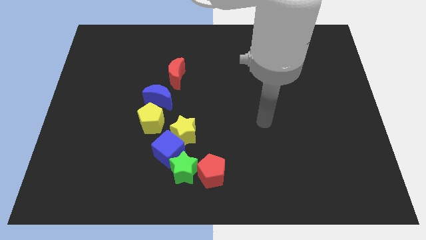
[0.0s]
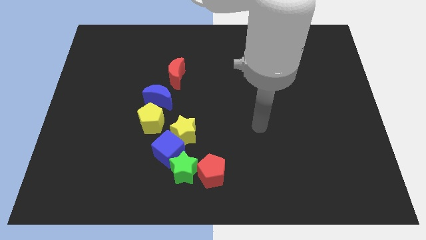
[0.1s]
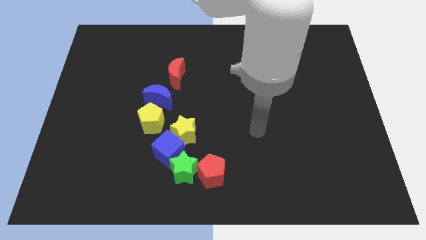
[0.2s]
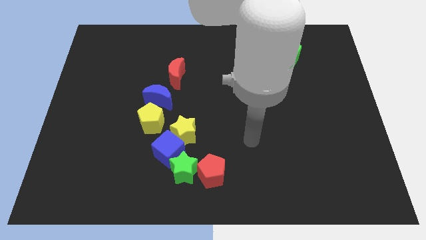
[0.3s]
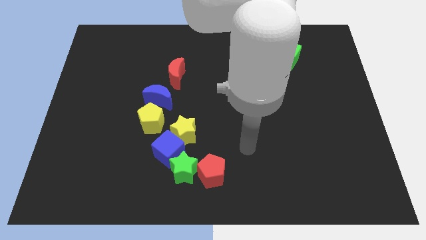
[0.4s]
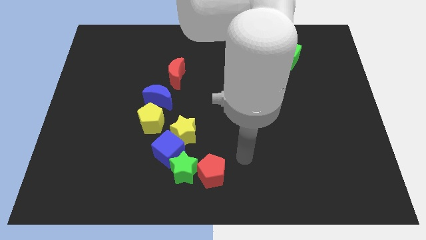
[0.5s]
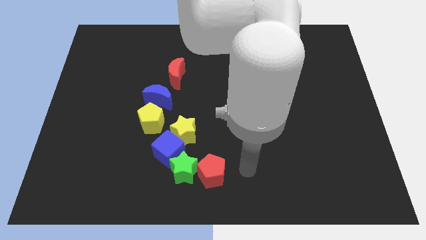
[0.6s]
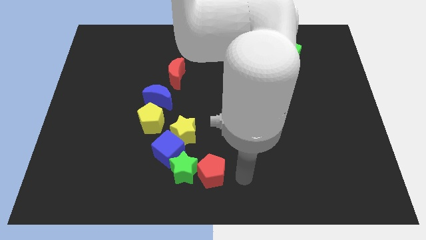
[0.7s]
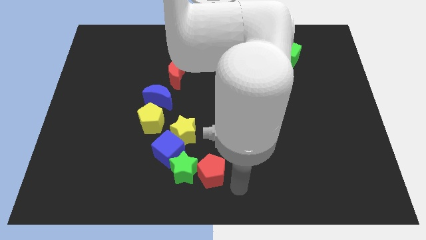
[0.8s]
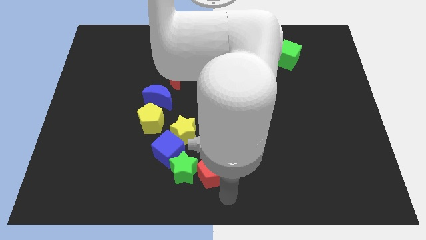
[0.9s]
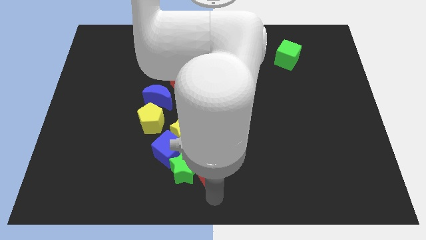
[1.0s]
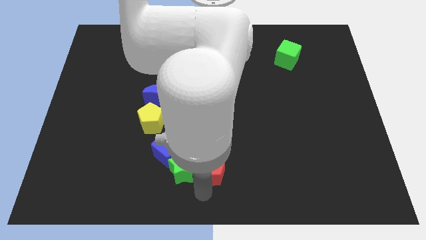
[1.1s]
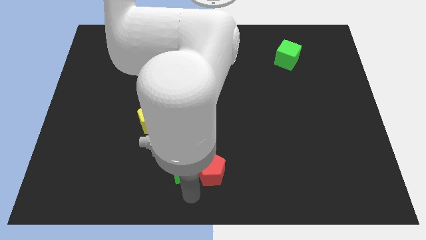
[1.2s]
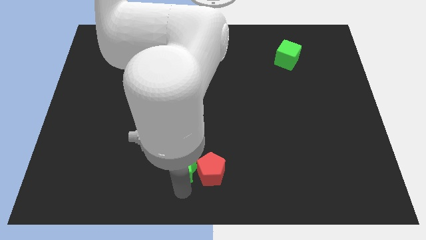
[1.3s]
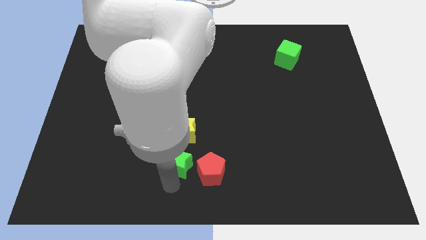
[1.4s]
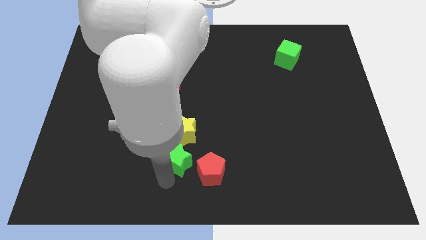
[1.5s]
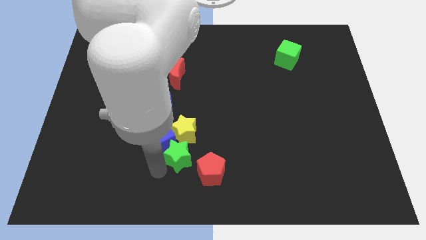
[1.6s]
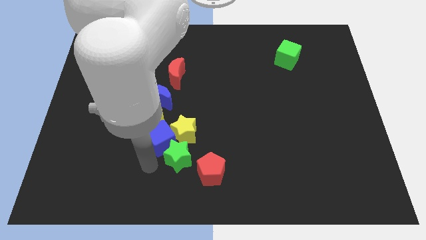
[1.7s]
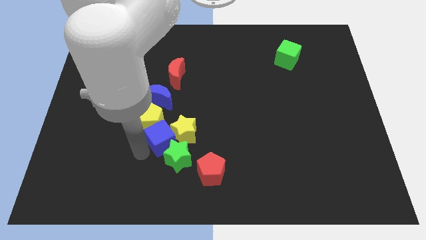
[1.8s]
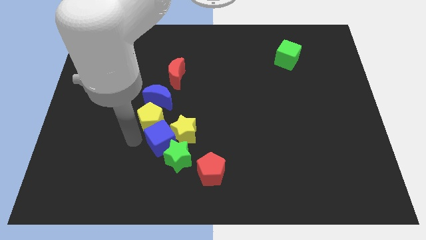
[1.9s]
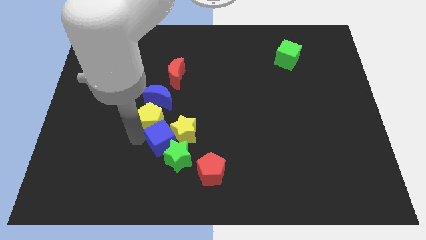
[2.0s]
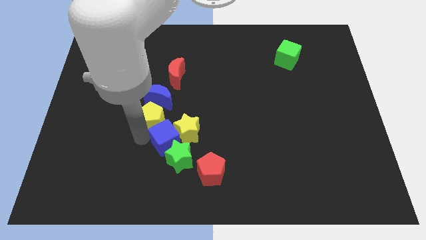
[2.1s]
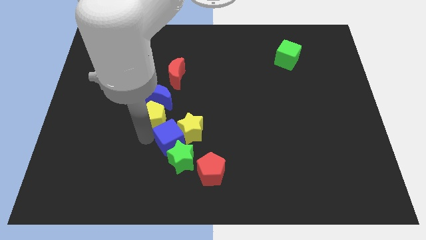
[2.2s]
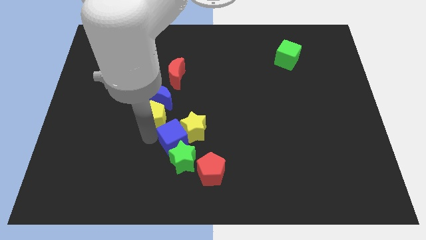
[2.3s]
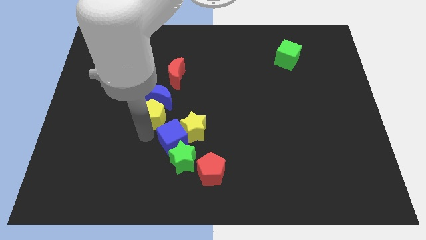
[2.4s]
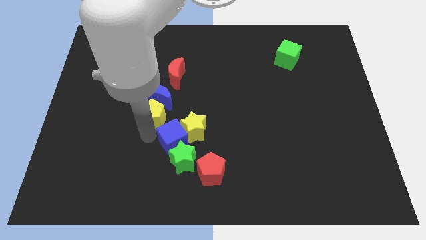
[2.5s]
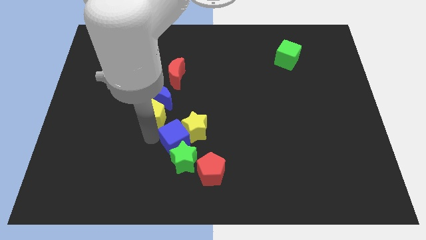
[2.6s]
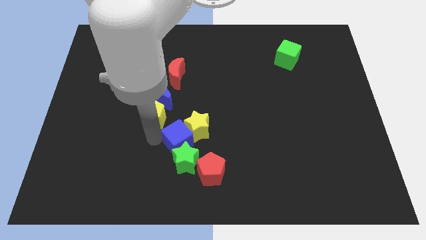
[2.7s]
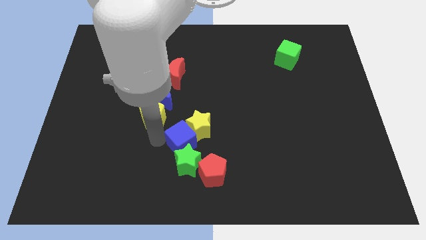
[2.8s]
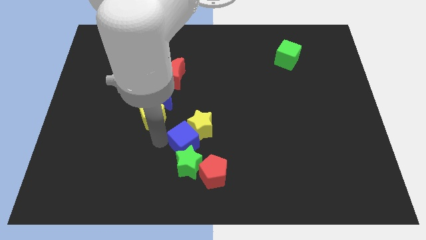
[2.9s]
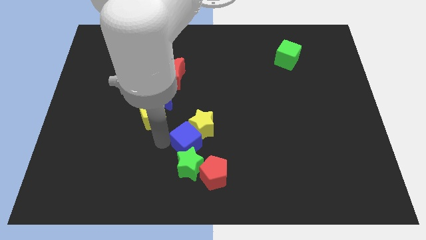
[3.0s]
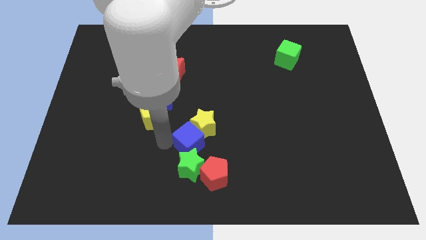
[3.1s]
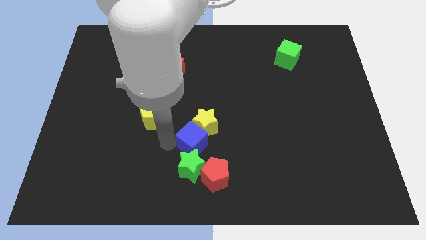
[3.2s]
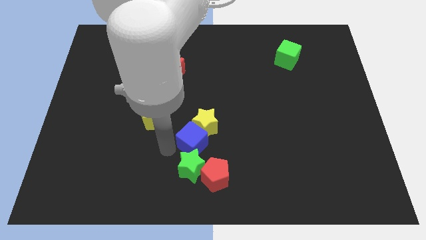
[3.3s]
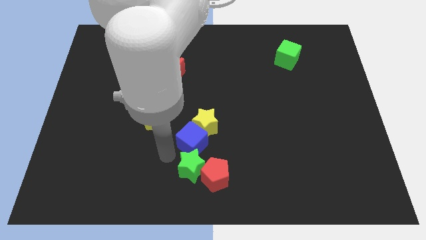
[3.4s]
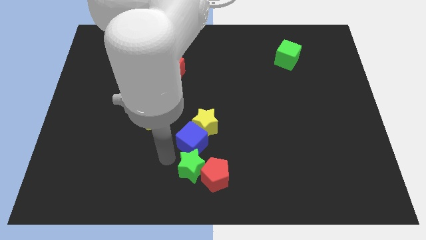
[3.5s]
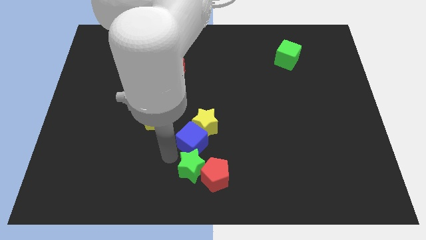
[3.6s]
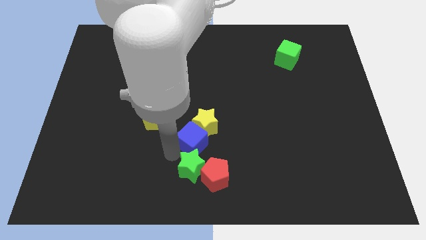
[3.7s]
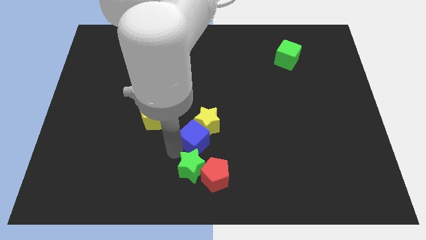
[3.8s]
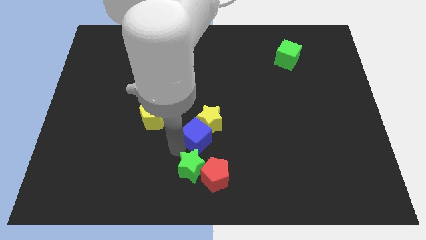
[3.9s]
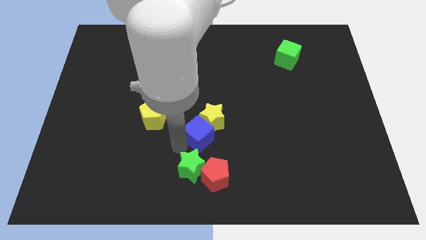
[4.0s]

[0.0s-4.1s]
push the blue cube up and to the right diagonally a little

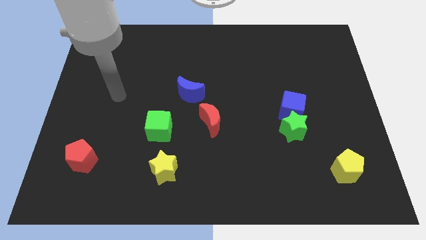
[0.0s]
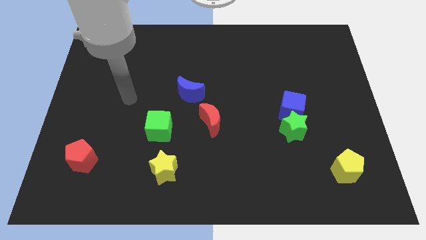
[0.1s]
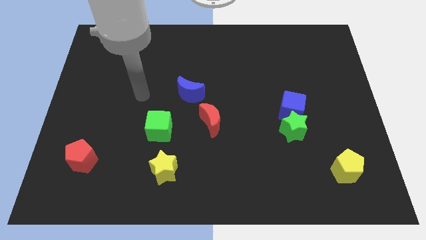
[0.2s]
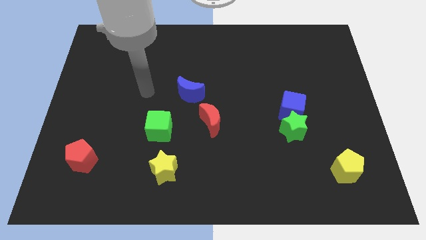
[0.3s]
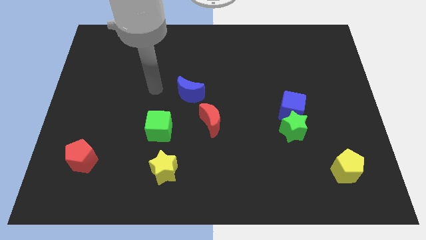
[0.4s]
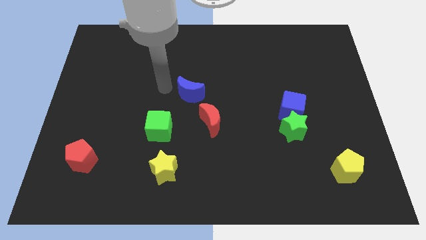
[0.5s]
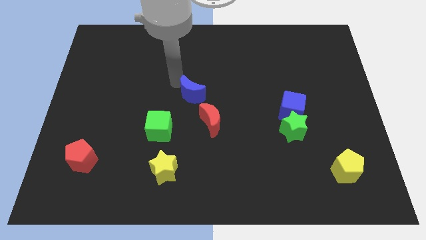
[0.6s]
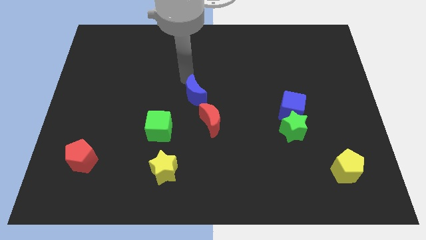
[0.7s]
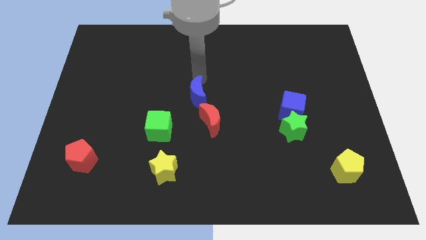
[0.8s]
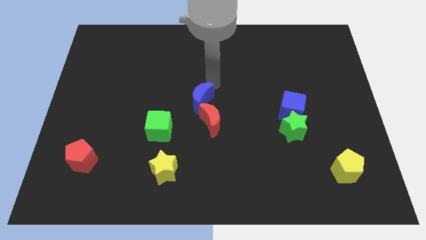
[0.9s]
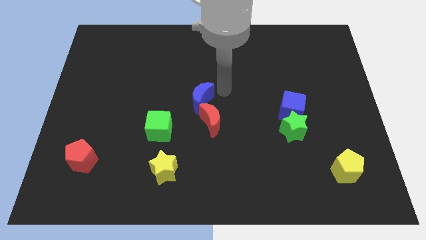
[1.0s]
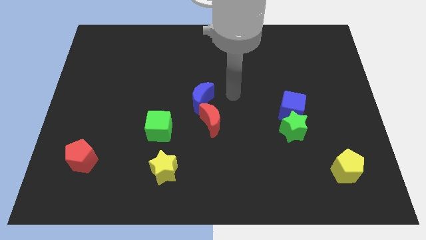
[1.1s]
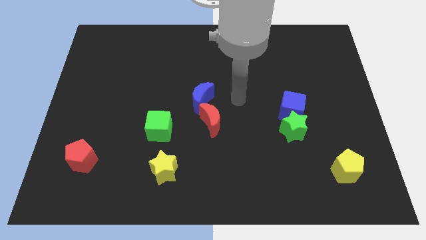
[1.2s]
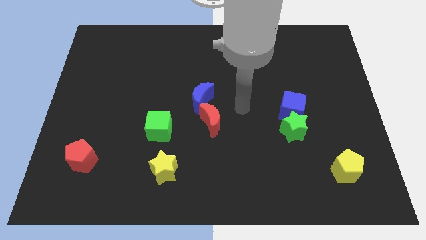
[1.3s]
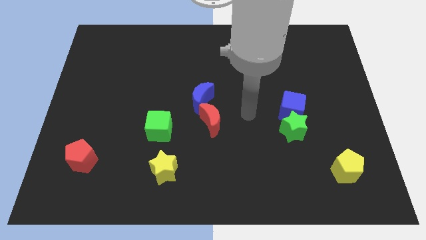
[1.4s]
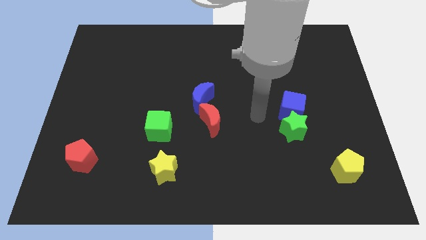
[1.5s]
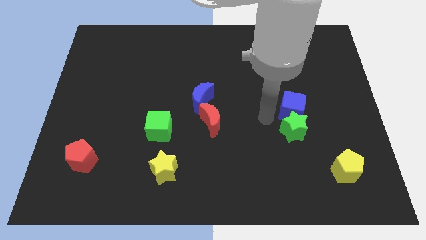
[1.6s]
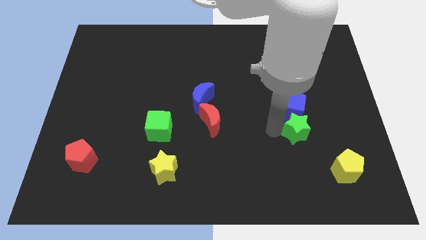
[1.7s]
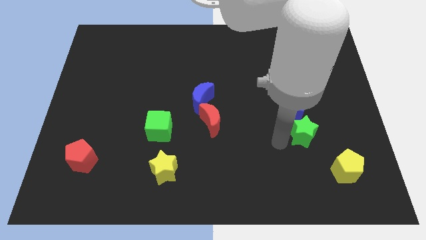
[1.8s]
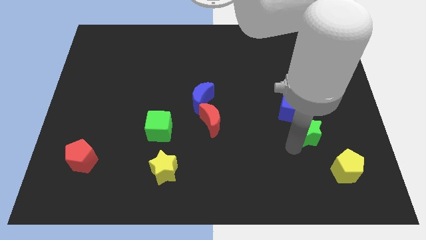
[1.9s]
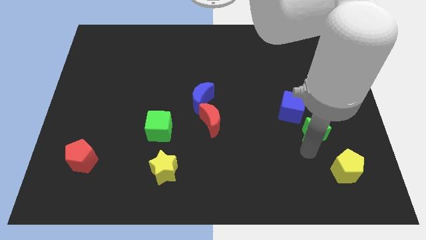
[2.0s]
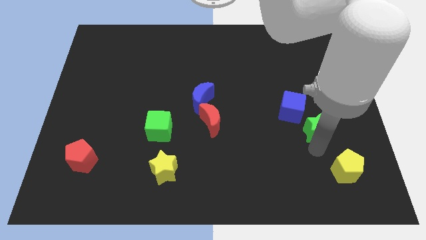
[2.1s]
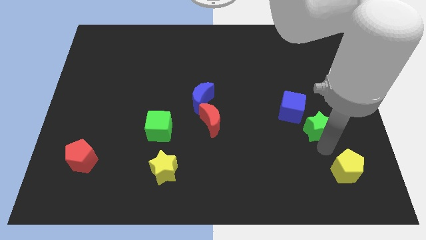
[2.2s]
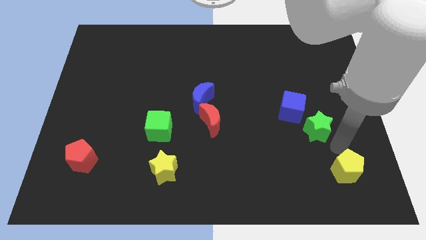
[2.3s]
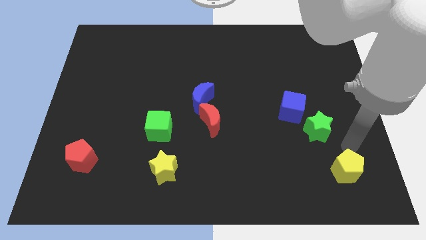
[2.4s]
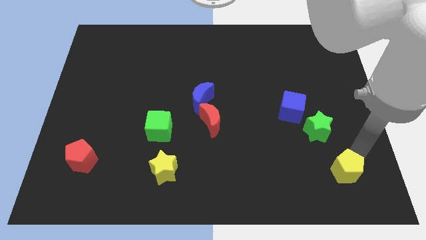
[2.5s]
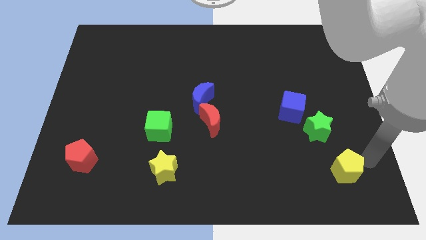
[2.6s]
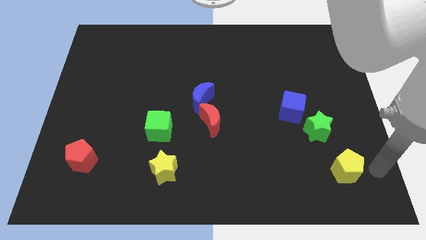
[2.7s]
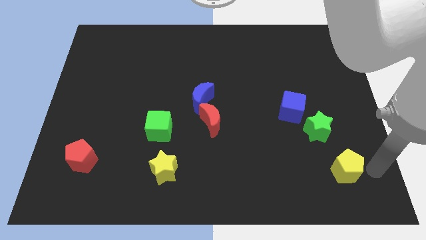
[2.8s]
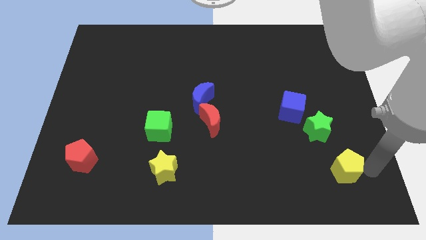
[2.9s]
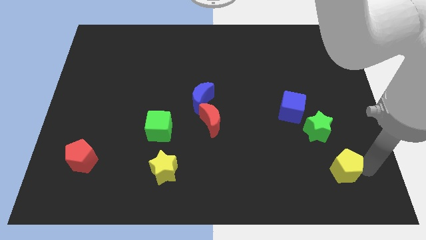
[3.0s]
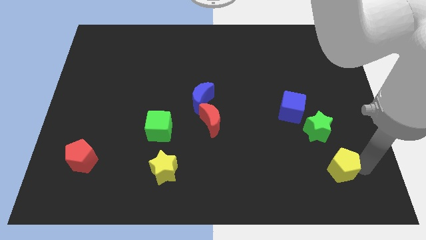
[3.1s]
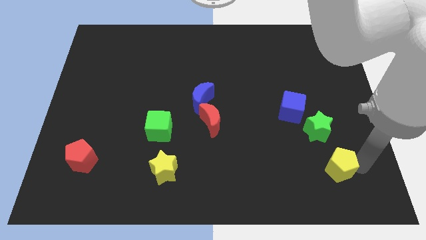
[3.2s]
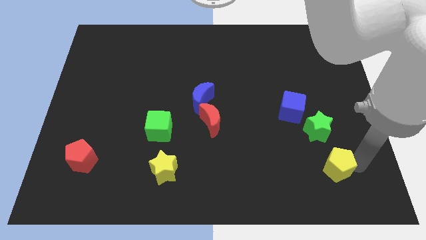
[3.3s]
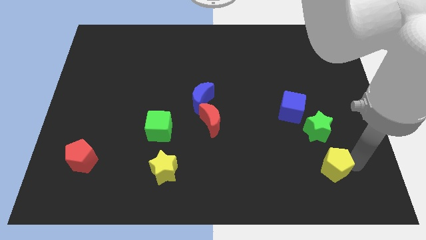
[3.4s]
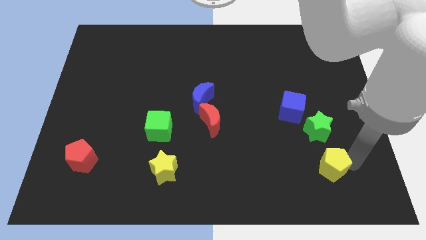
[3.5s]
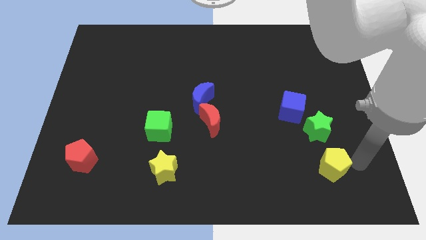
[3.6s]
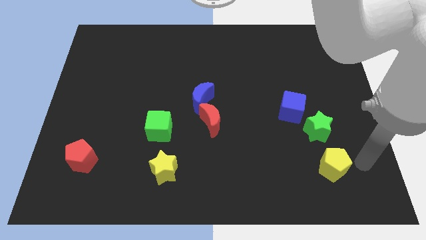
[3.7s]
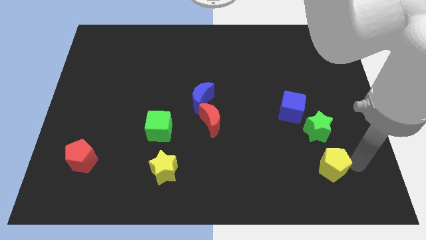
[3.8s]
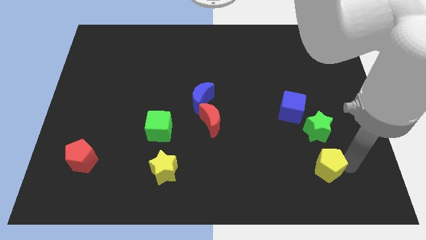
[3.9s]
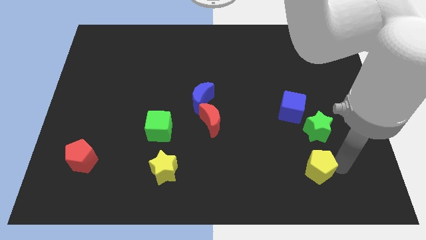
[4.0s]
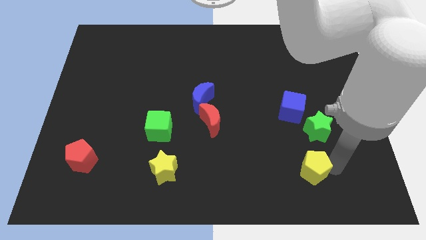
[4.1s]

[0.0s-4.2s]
slide the yellow pentagon left slightly
